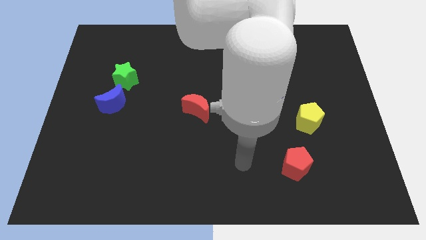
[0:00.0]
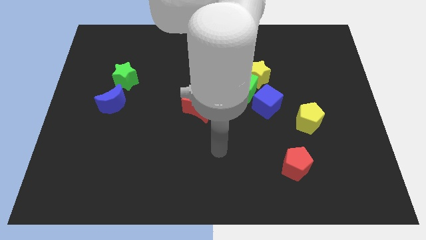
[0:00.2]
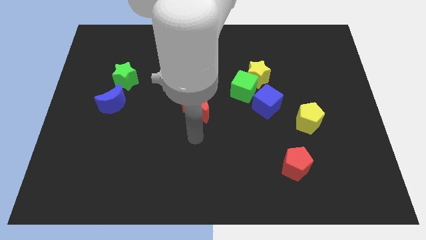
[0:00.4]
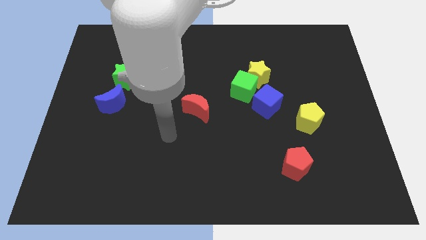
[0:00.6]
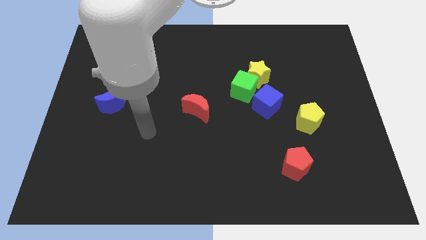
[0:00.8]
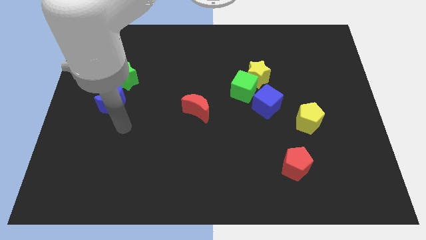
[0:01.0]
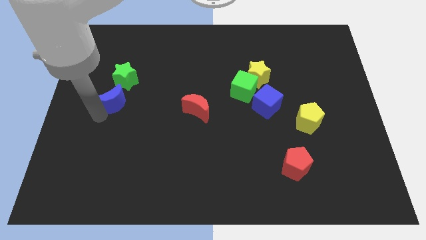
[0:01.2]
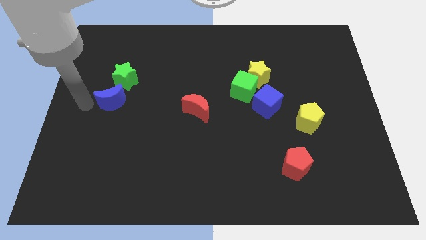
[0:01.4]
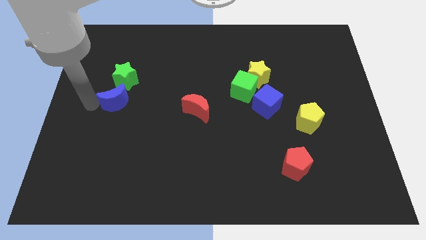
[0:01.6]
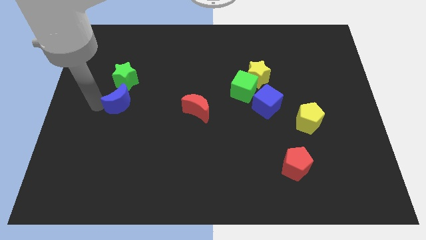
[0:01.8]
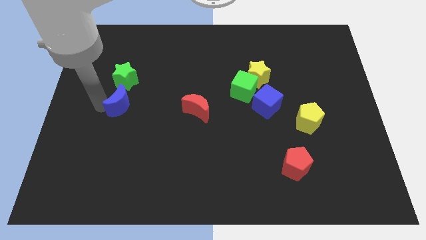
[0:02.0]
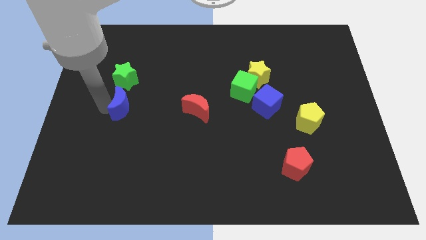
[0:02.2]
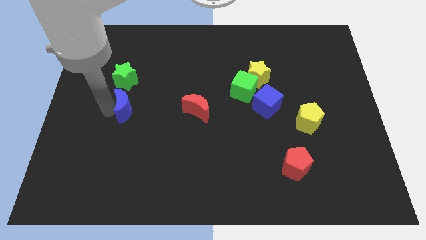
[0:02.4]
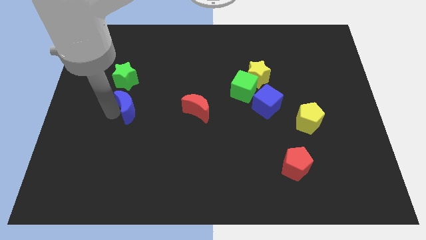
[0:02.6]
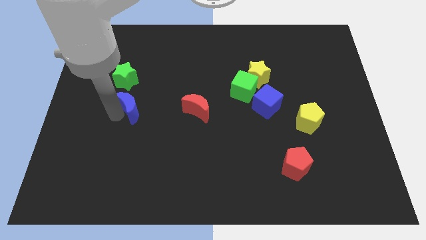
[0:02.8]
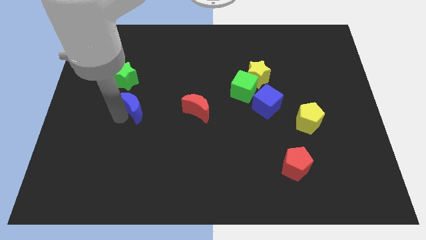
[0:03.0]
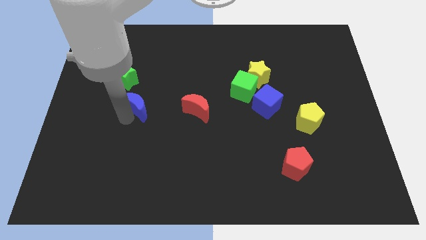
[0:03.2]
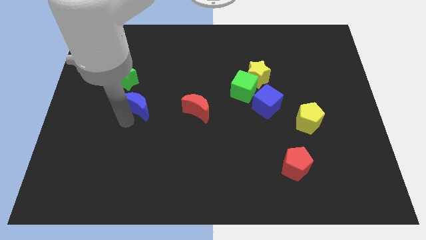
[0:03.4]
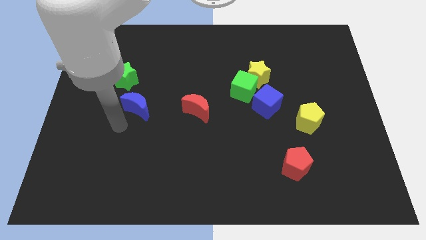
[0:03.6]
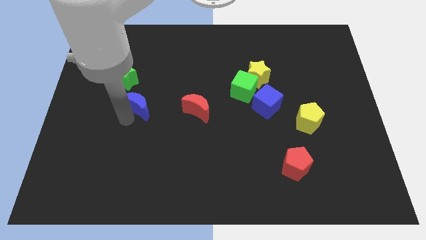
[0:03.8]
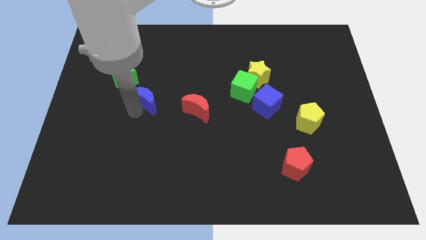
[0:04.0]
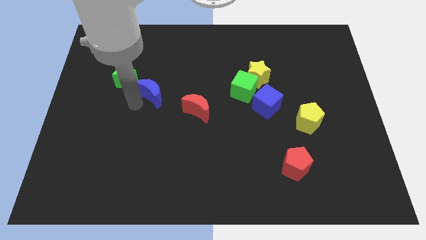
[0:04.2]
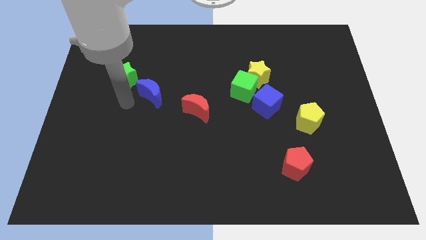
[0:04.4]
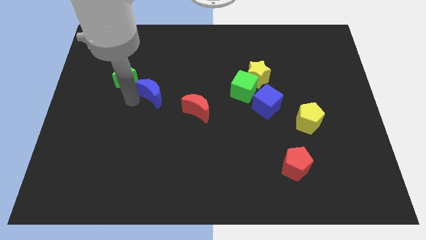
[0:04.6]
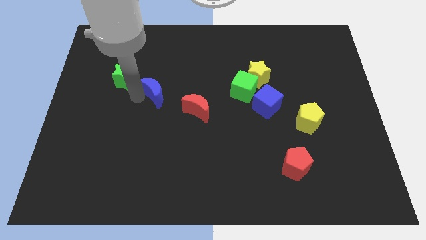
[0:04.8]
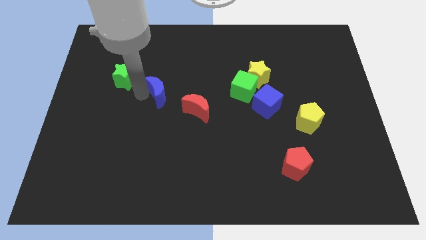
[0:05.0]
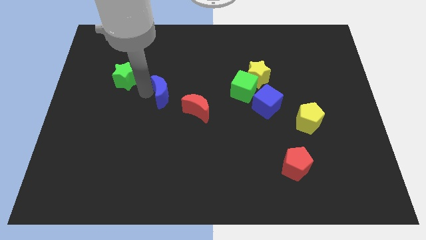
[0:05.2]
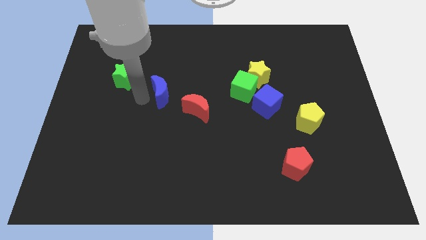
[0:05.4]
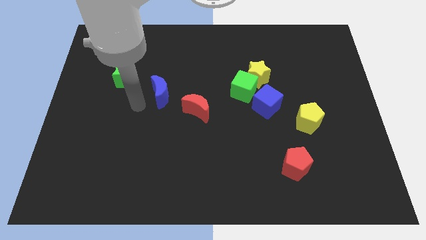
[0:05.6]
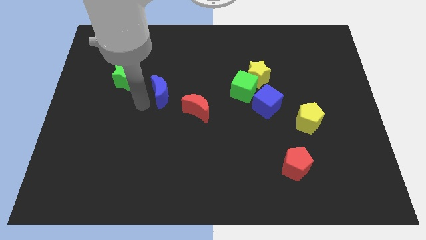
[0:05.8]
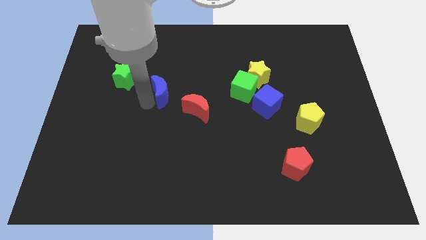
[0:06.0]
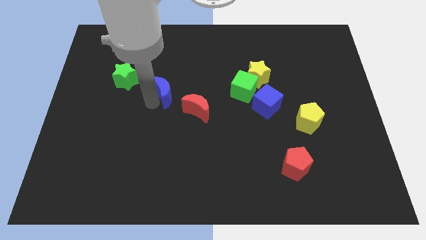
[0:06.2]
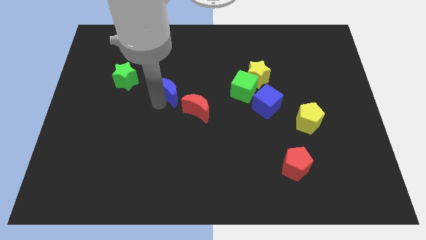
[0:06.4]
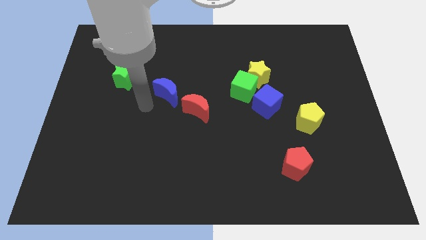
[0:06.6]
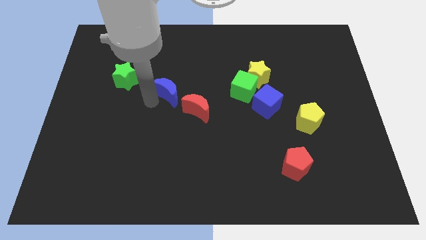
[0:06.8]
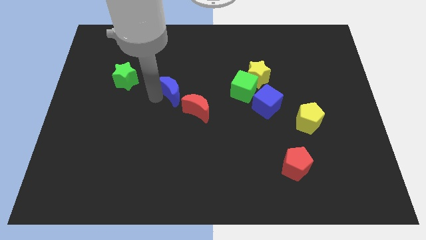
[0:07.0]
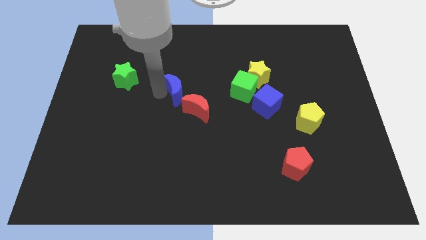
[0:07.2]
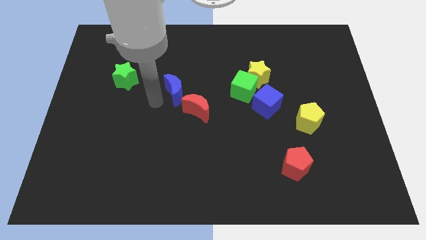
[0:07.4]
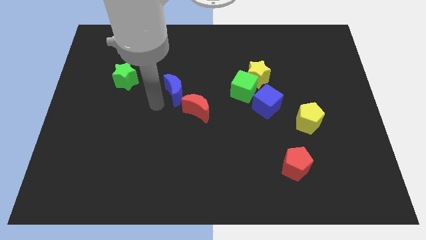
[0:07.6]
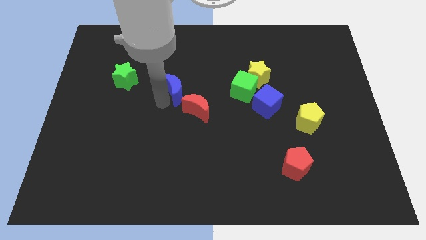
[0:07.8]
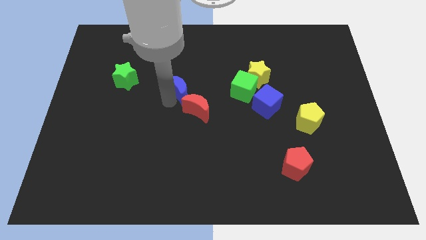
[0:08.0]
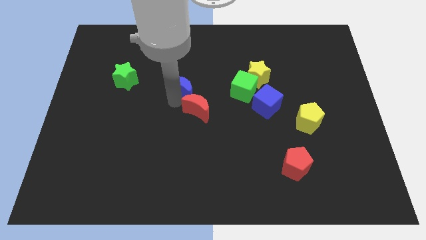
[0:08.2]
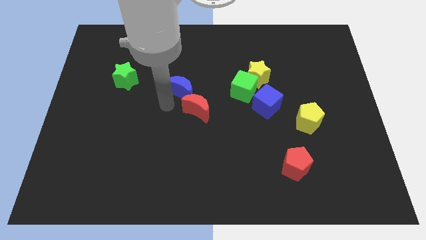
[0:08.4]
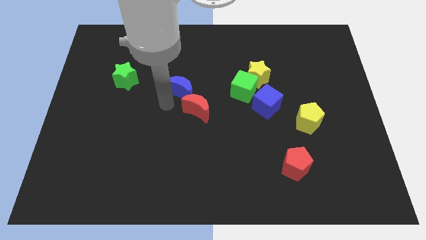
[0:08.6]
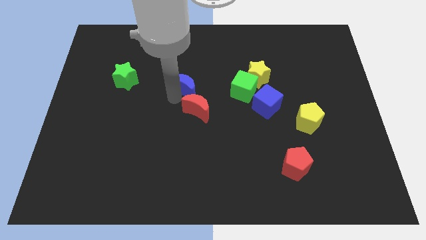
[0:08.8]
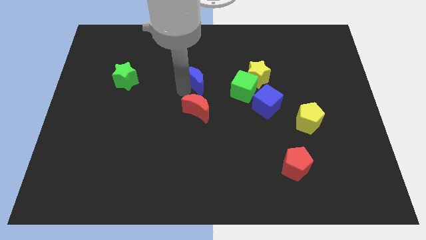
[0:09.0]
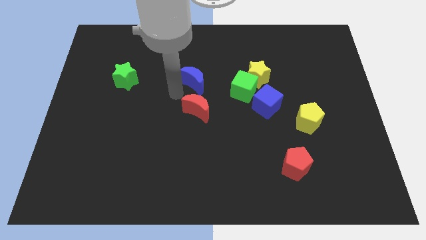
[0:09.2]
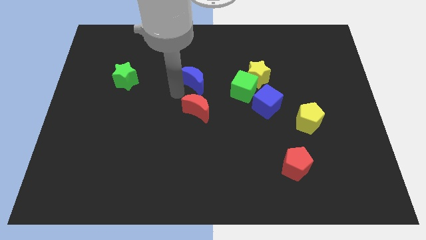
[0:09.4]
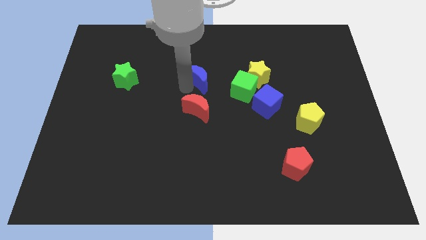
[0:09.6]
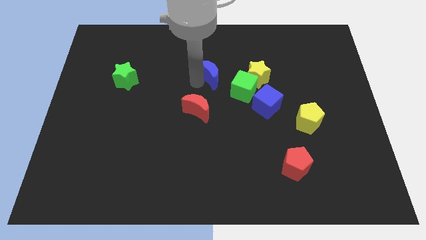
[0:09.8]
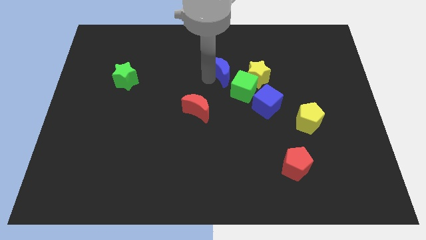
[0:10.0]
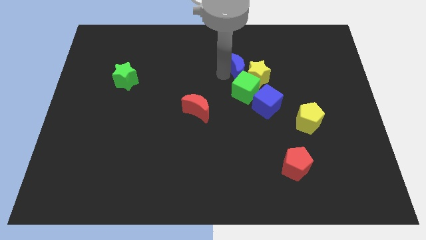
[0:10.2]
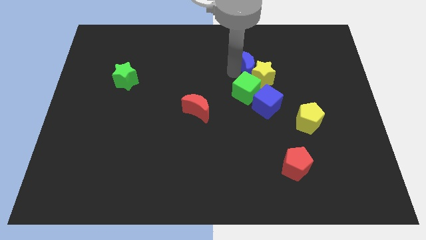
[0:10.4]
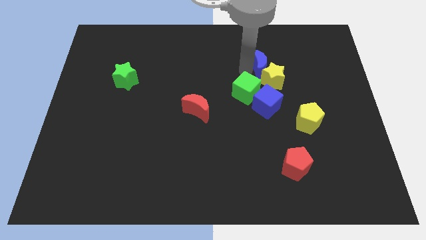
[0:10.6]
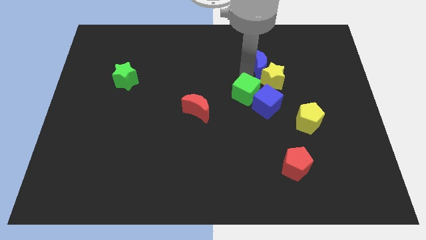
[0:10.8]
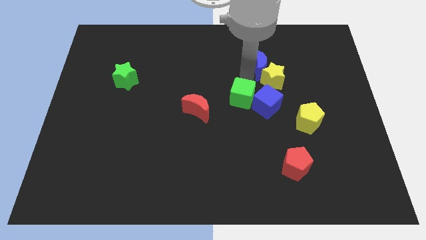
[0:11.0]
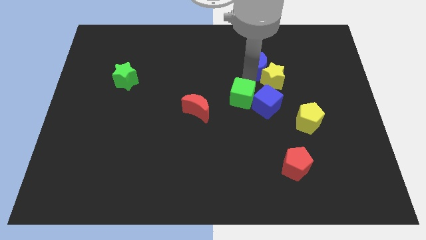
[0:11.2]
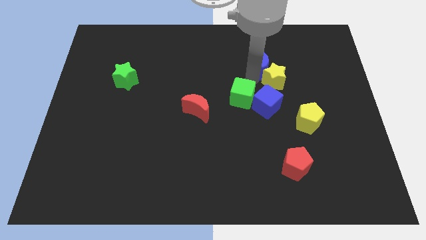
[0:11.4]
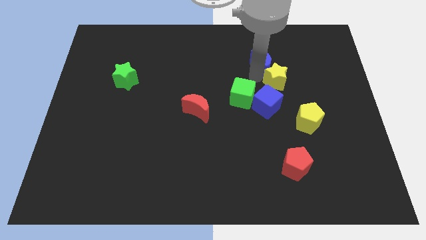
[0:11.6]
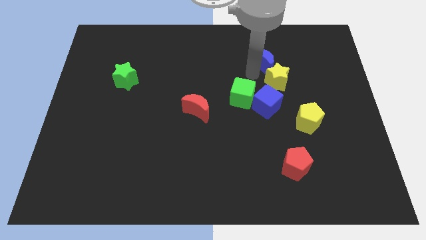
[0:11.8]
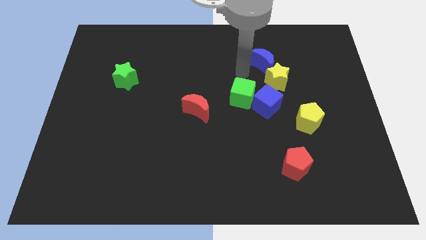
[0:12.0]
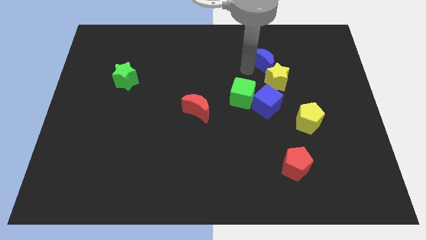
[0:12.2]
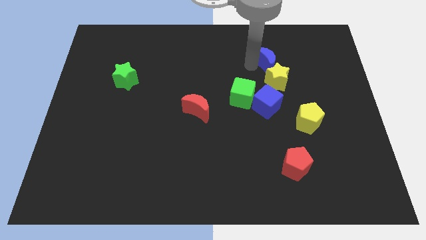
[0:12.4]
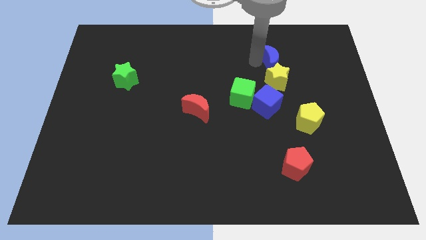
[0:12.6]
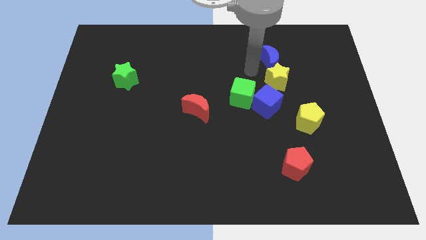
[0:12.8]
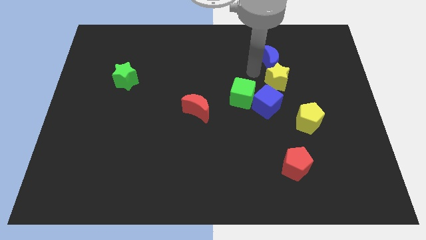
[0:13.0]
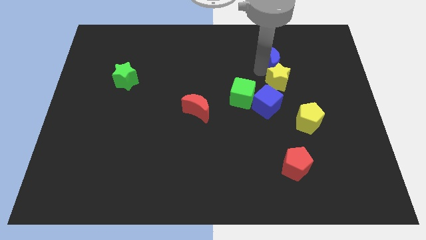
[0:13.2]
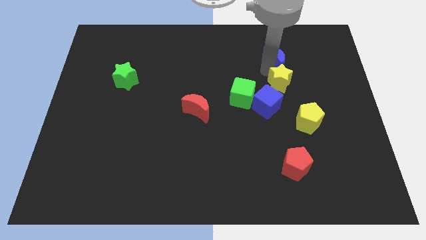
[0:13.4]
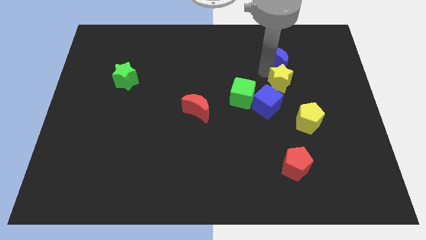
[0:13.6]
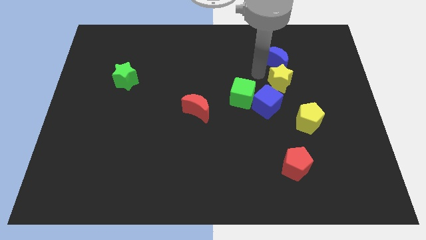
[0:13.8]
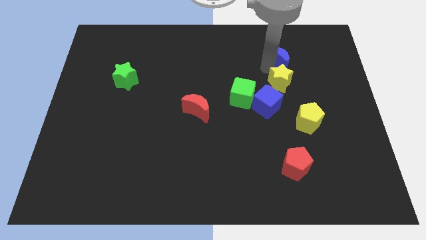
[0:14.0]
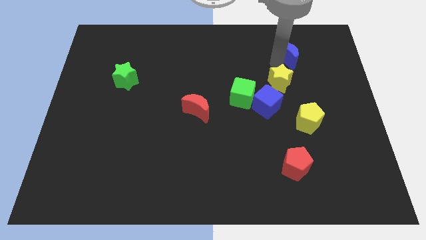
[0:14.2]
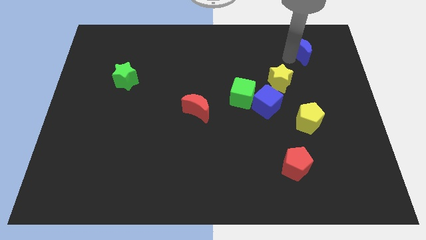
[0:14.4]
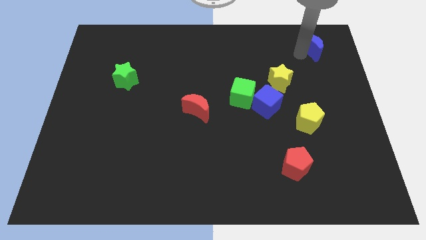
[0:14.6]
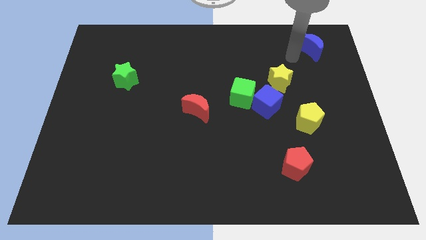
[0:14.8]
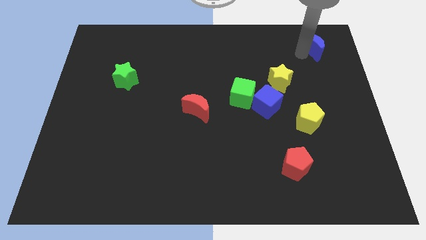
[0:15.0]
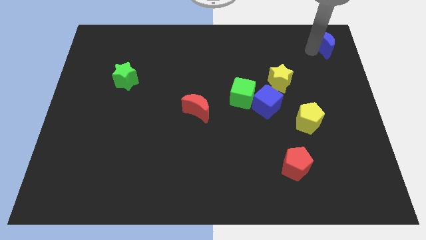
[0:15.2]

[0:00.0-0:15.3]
slide the blue moon to the top right corner
